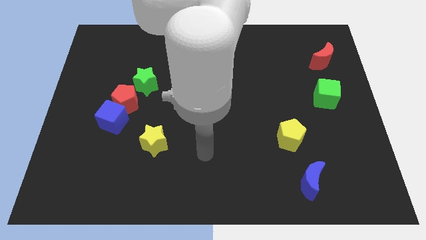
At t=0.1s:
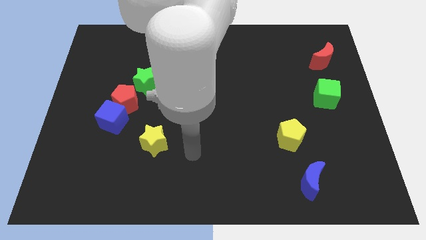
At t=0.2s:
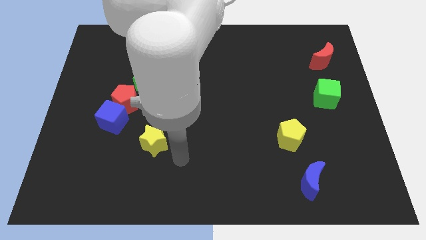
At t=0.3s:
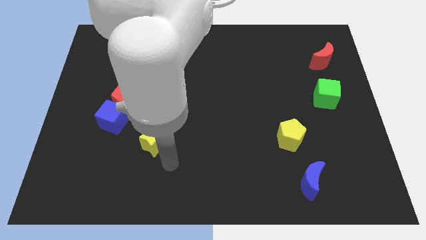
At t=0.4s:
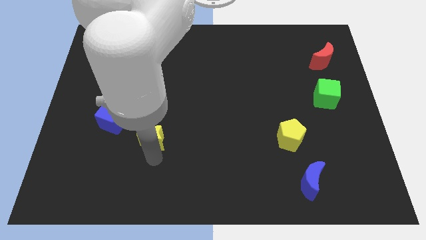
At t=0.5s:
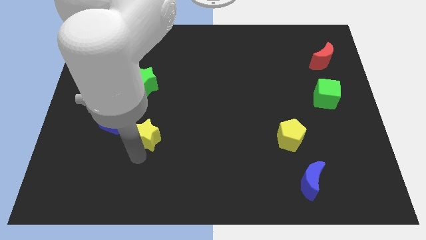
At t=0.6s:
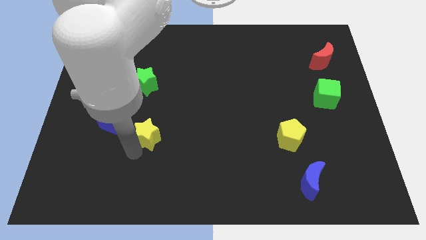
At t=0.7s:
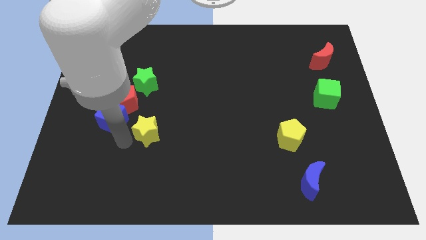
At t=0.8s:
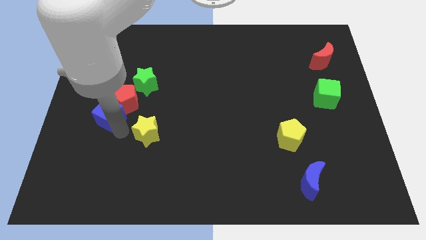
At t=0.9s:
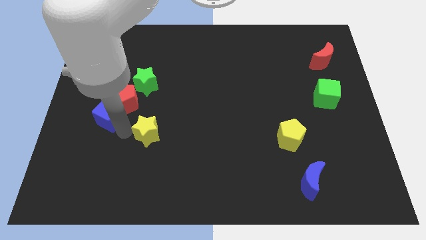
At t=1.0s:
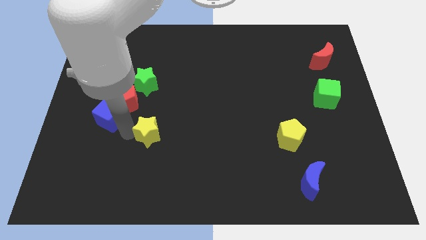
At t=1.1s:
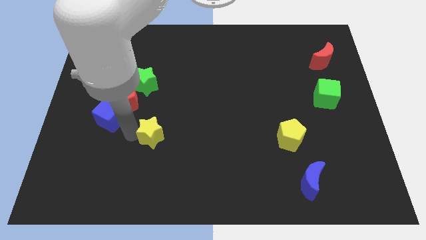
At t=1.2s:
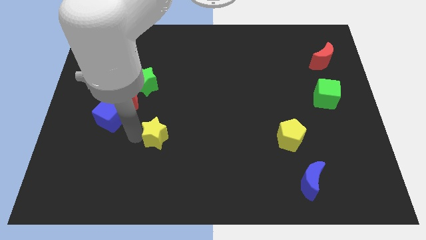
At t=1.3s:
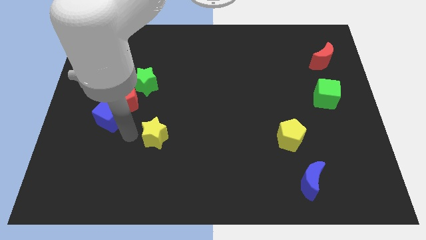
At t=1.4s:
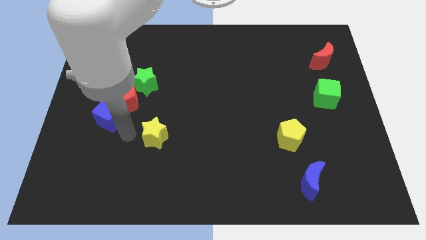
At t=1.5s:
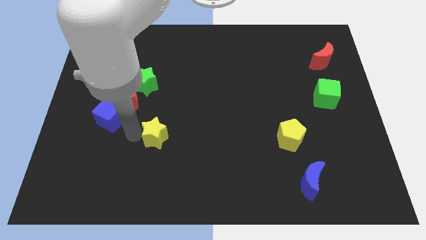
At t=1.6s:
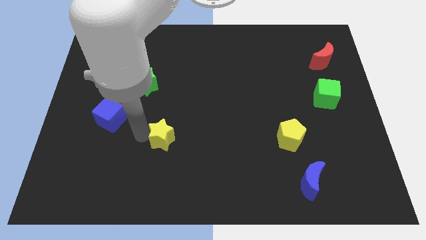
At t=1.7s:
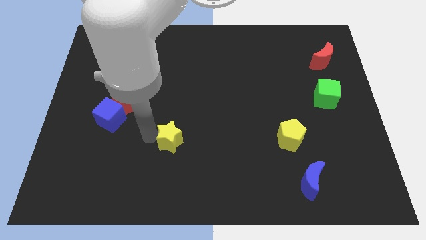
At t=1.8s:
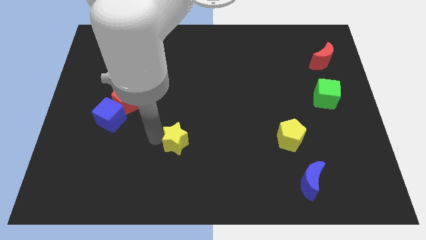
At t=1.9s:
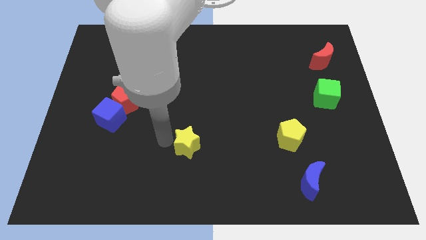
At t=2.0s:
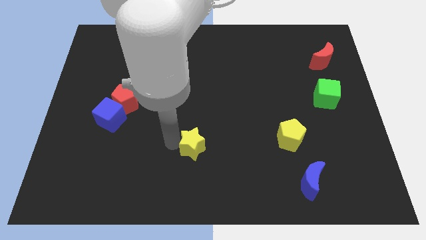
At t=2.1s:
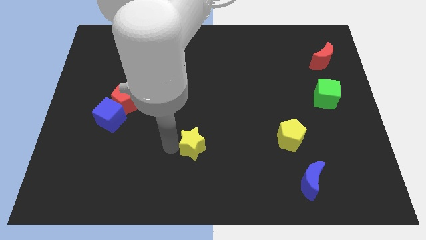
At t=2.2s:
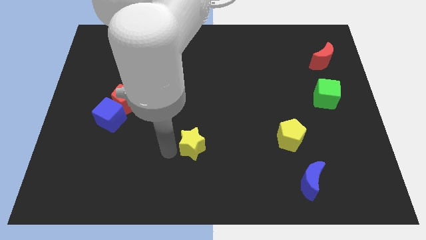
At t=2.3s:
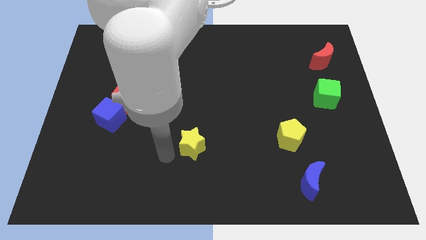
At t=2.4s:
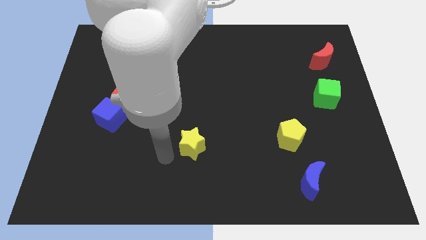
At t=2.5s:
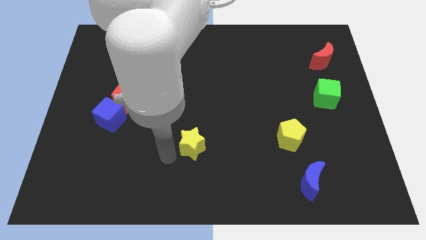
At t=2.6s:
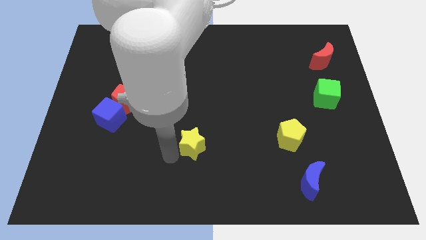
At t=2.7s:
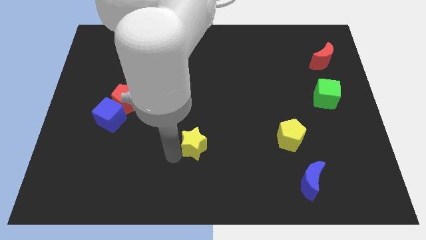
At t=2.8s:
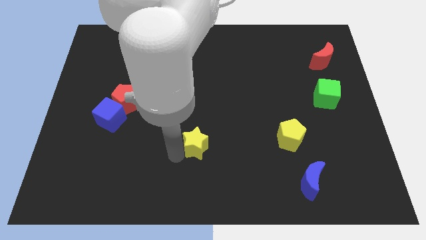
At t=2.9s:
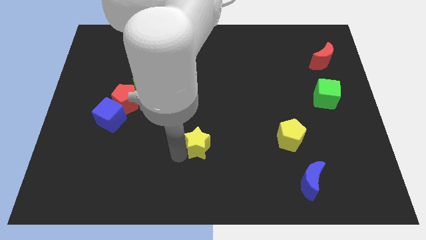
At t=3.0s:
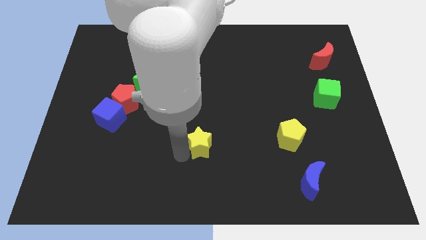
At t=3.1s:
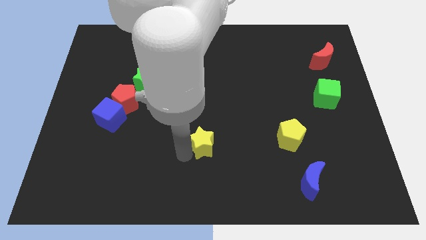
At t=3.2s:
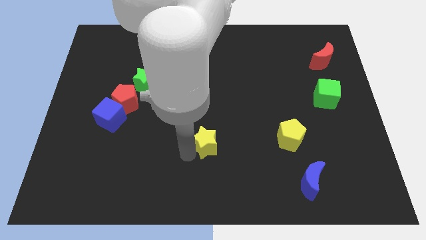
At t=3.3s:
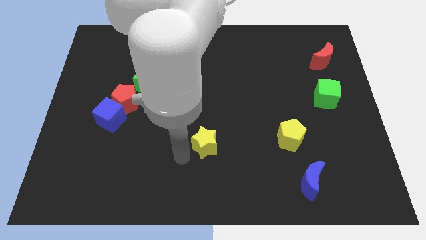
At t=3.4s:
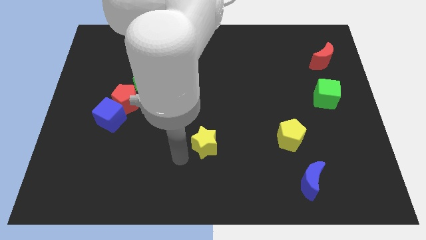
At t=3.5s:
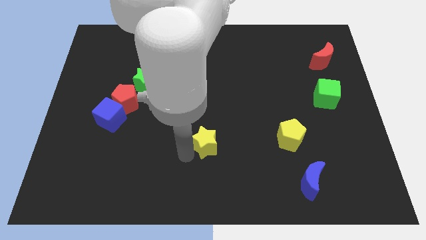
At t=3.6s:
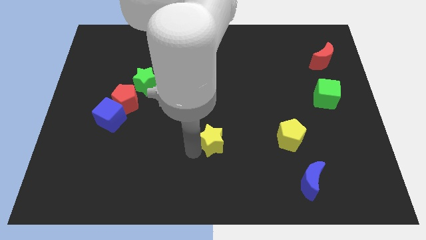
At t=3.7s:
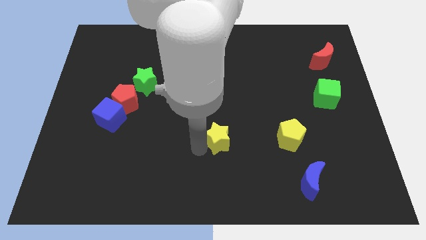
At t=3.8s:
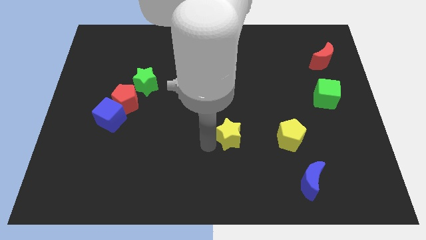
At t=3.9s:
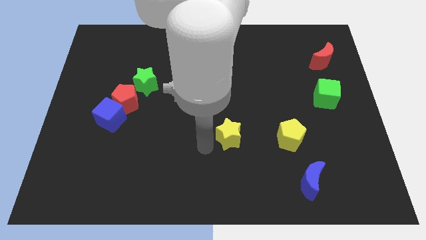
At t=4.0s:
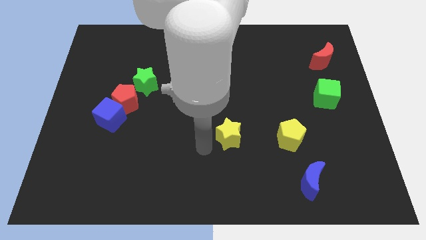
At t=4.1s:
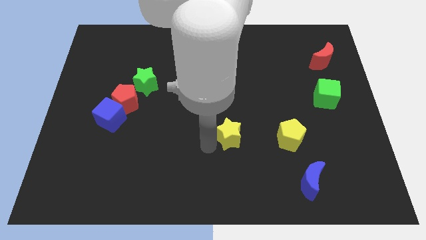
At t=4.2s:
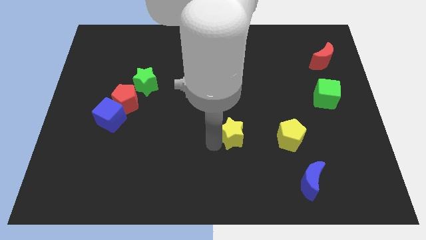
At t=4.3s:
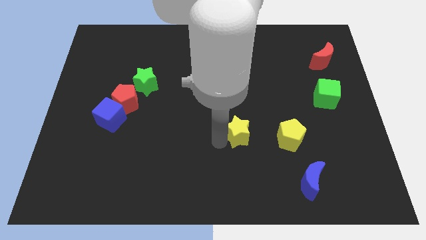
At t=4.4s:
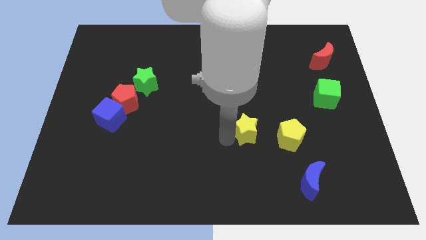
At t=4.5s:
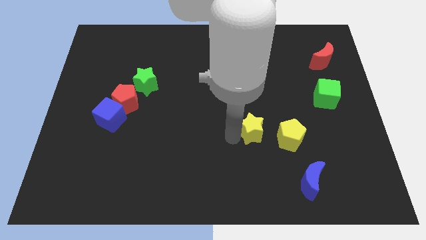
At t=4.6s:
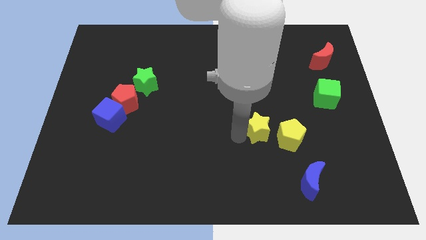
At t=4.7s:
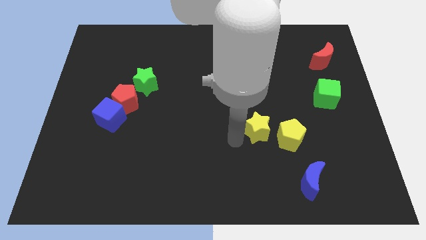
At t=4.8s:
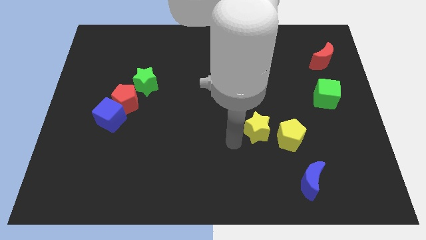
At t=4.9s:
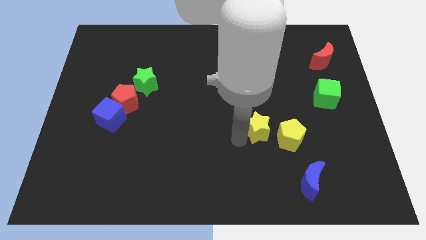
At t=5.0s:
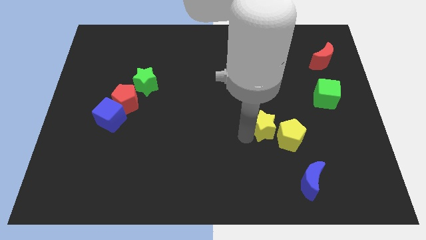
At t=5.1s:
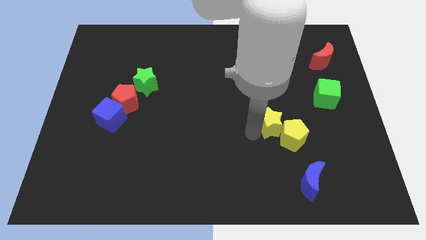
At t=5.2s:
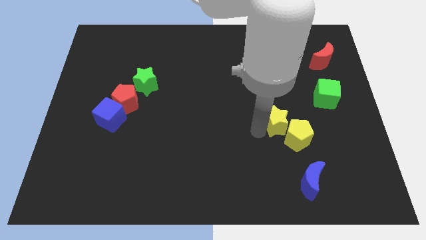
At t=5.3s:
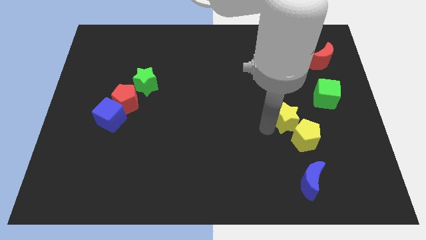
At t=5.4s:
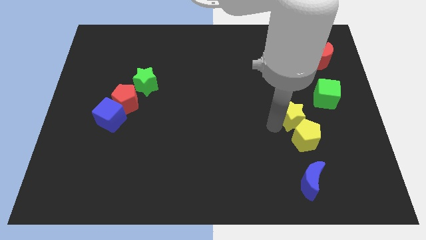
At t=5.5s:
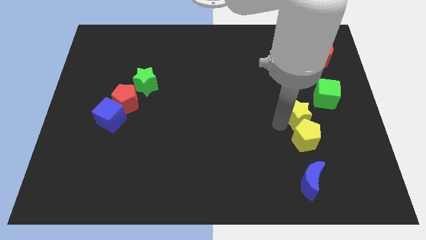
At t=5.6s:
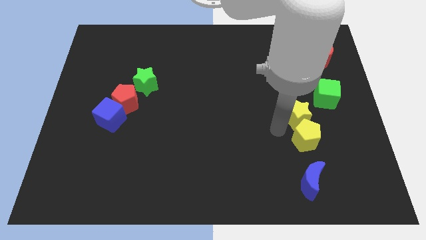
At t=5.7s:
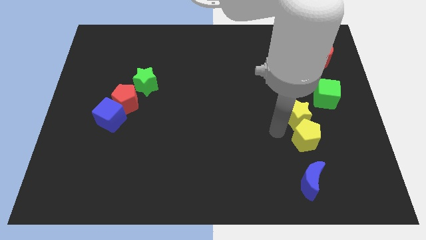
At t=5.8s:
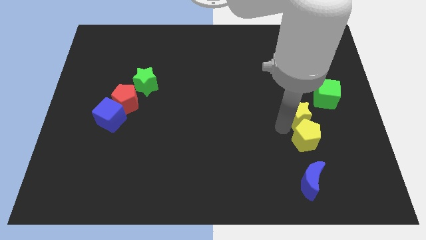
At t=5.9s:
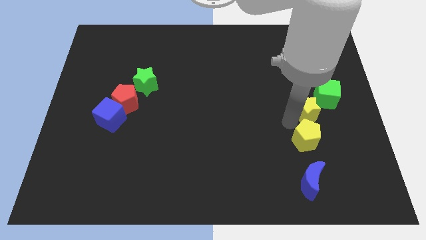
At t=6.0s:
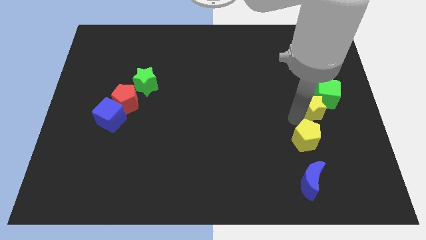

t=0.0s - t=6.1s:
push the yellow star to the green cube
